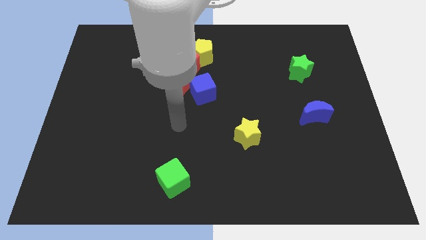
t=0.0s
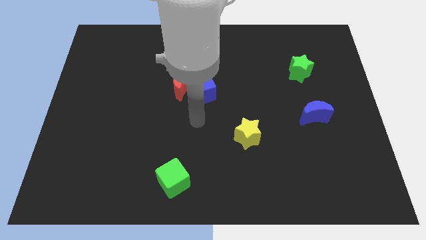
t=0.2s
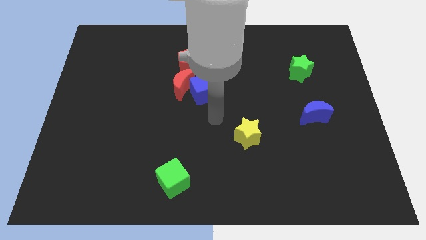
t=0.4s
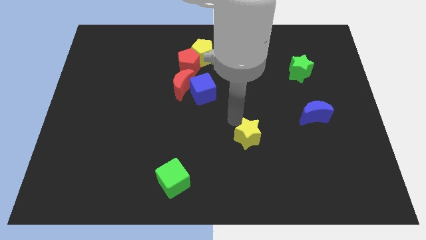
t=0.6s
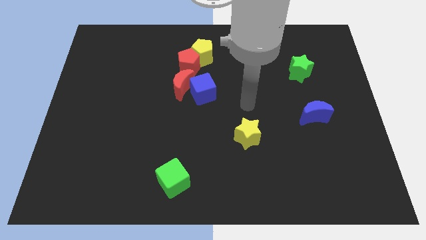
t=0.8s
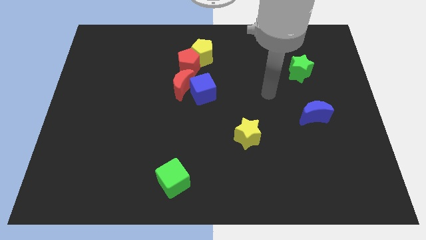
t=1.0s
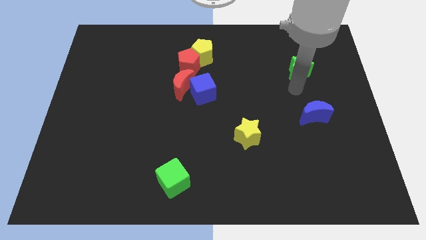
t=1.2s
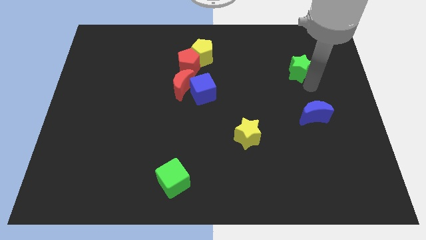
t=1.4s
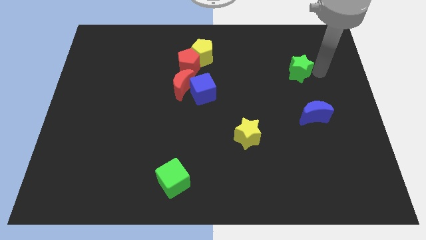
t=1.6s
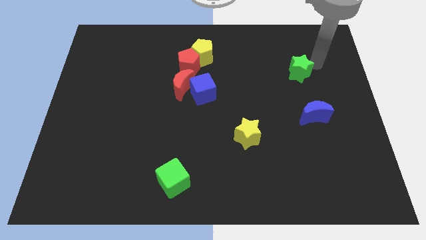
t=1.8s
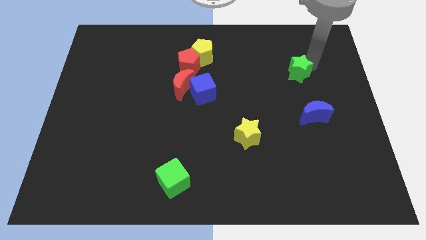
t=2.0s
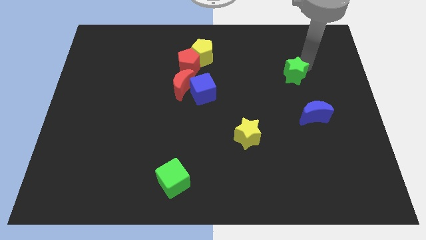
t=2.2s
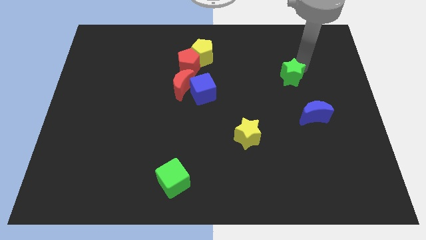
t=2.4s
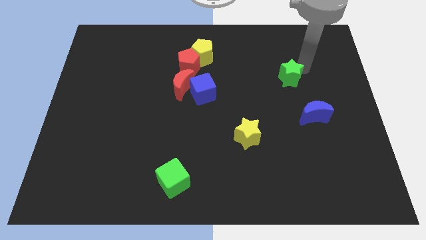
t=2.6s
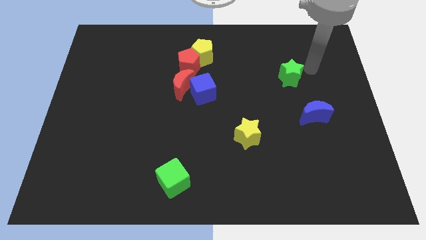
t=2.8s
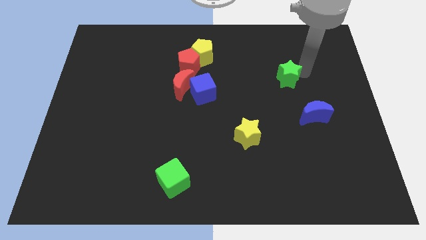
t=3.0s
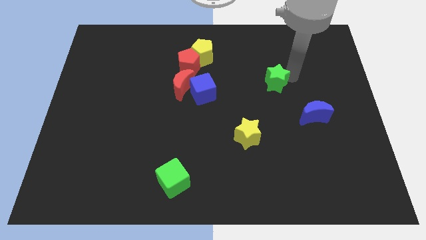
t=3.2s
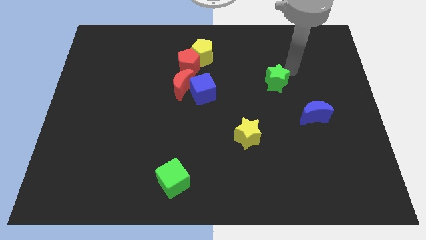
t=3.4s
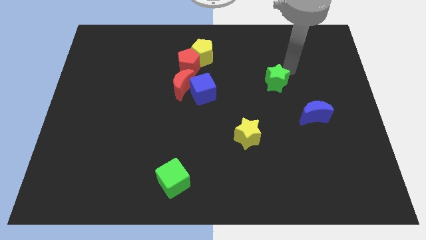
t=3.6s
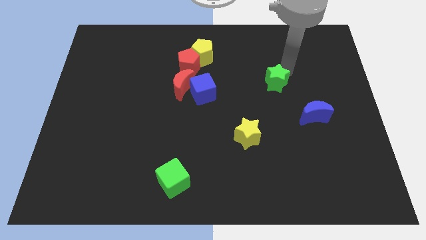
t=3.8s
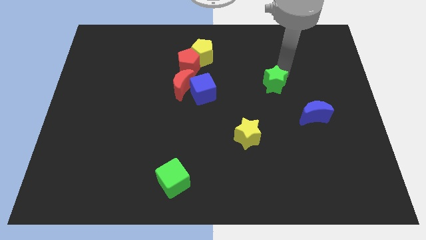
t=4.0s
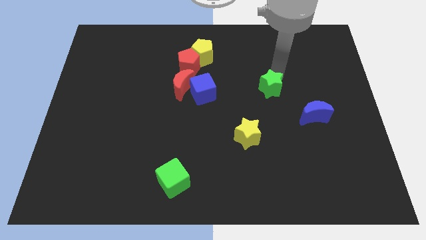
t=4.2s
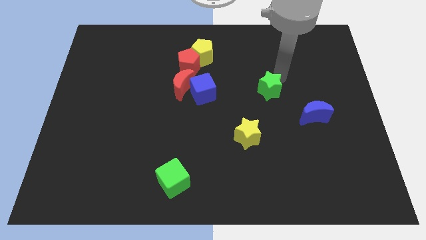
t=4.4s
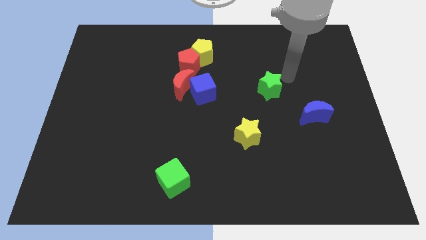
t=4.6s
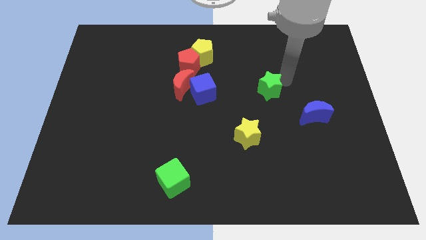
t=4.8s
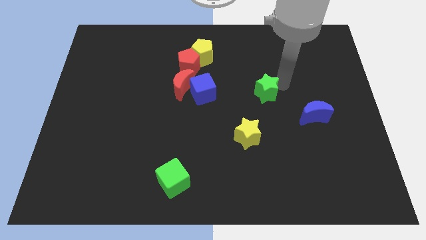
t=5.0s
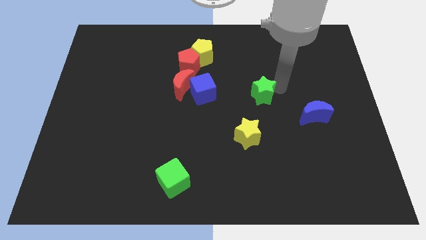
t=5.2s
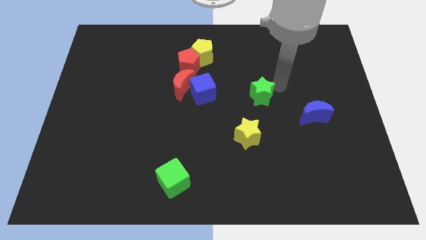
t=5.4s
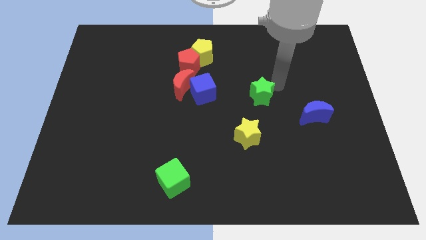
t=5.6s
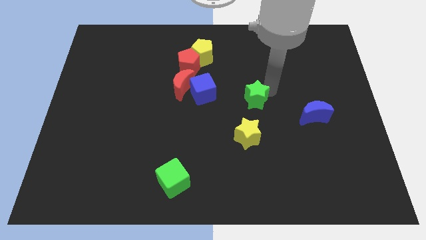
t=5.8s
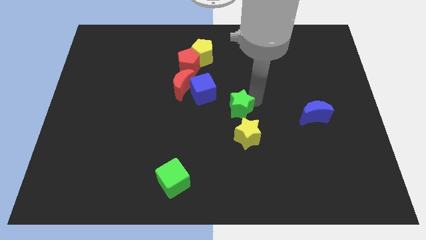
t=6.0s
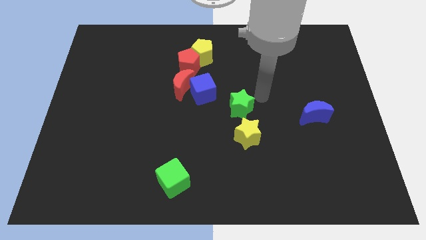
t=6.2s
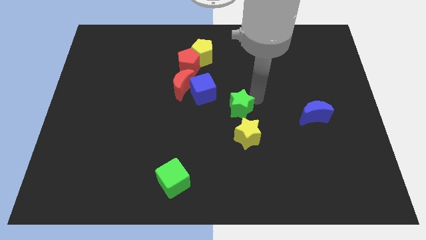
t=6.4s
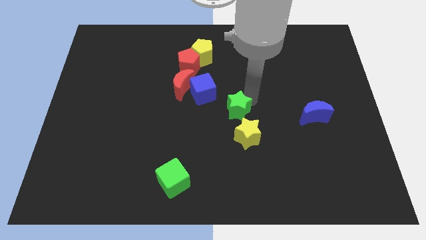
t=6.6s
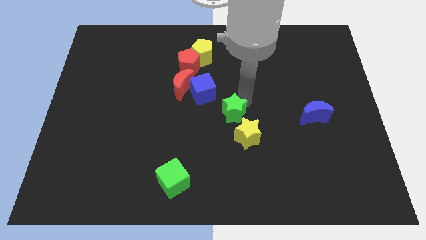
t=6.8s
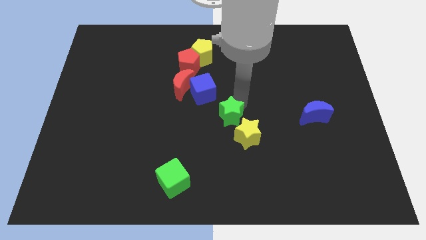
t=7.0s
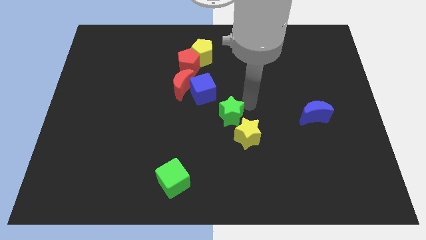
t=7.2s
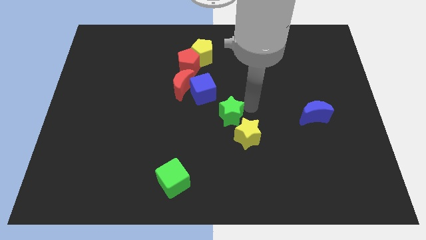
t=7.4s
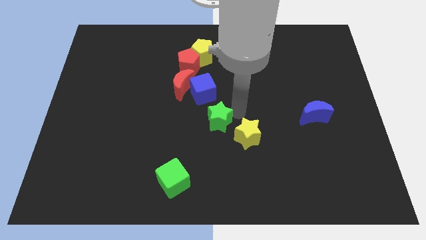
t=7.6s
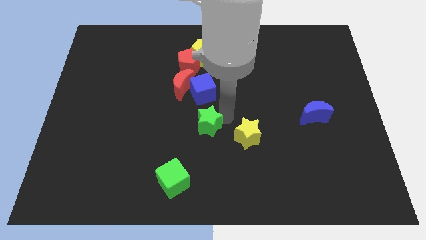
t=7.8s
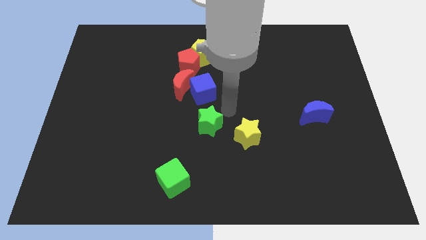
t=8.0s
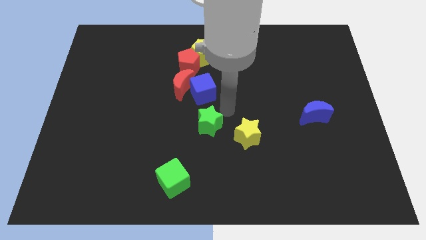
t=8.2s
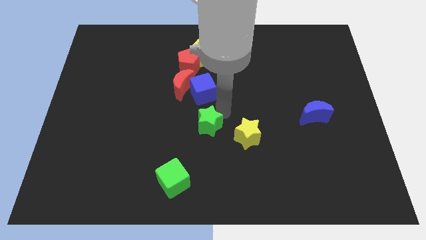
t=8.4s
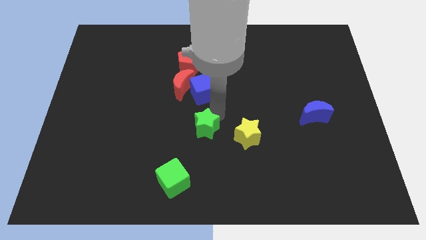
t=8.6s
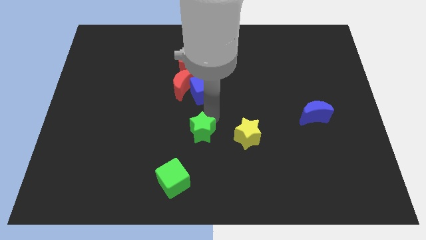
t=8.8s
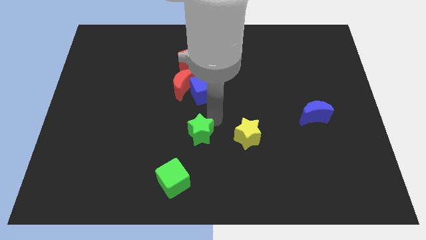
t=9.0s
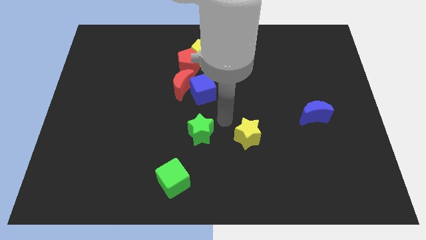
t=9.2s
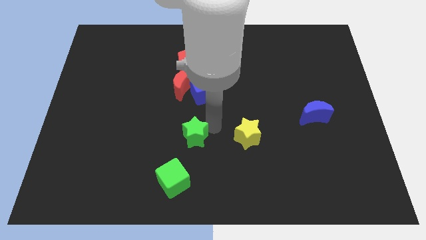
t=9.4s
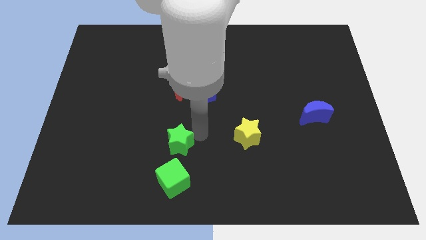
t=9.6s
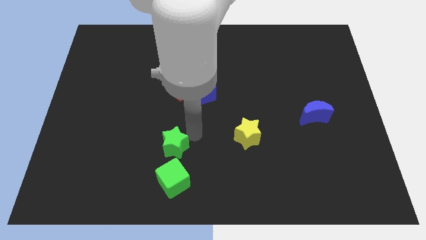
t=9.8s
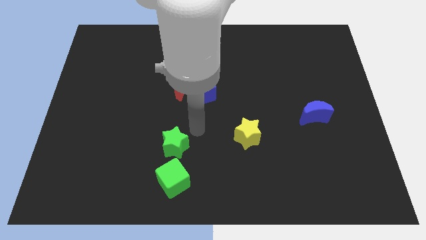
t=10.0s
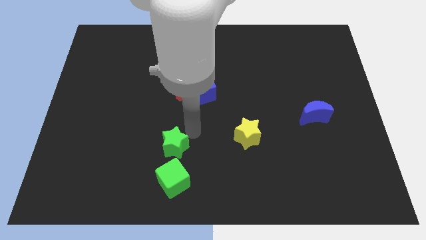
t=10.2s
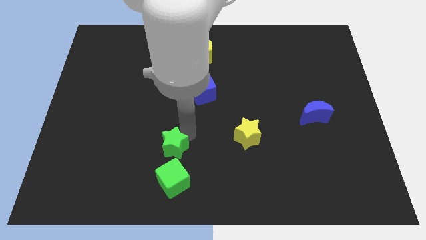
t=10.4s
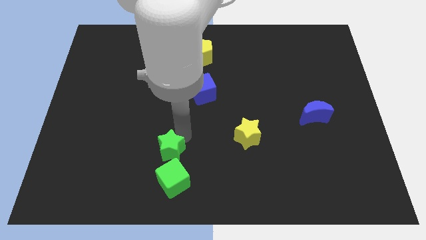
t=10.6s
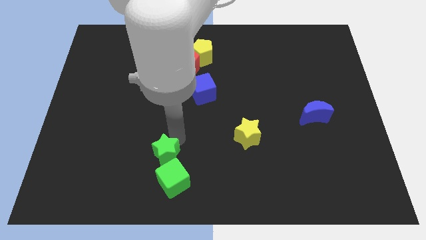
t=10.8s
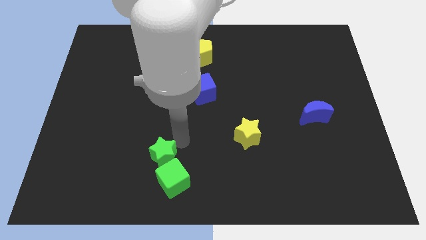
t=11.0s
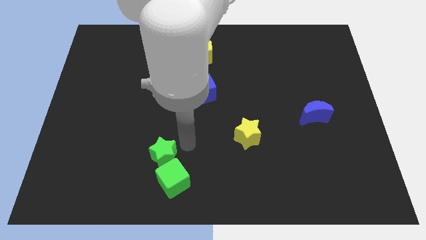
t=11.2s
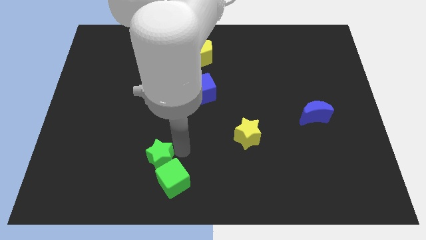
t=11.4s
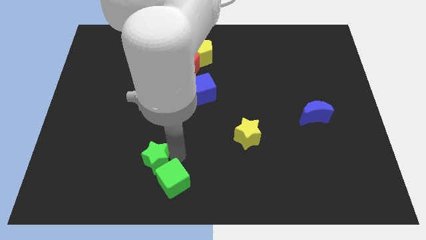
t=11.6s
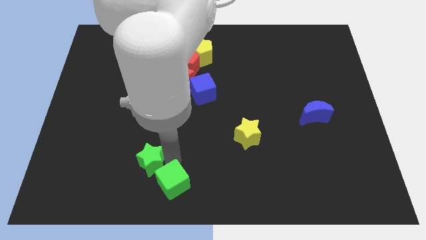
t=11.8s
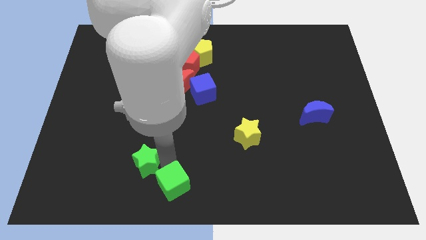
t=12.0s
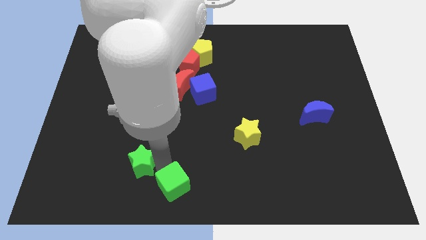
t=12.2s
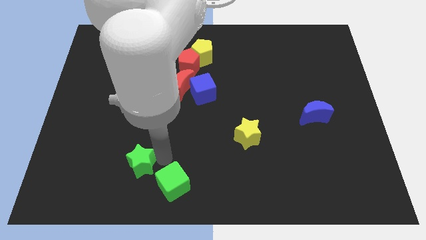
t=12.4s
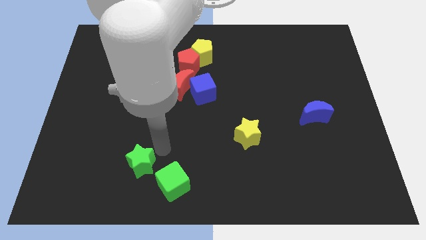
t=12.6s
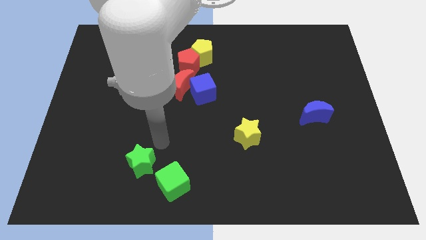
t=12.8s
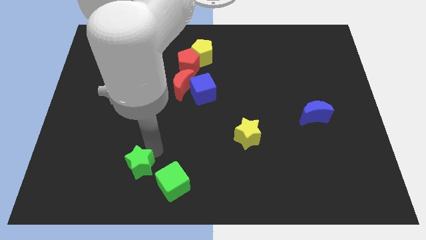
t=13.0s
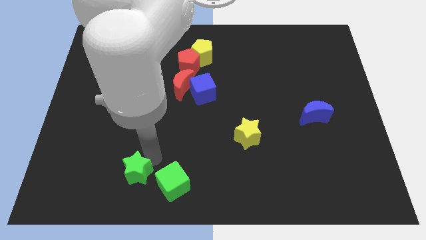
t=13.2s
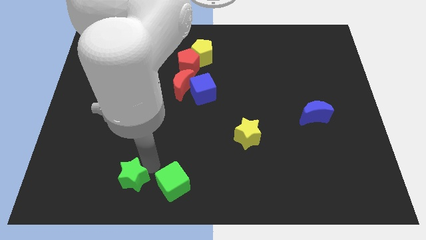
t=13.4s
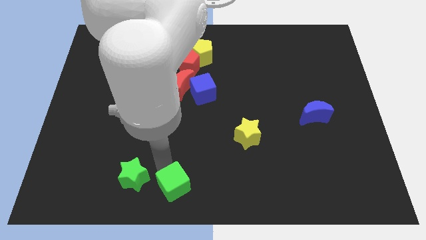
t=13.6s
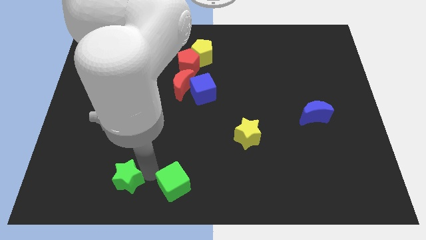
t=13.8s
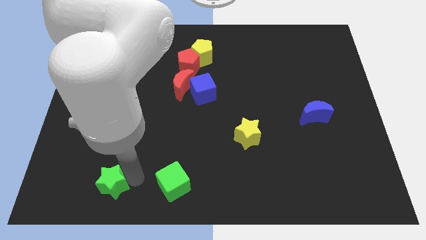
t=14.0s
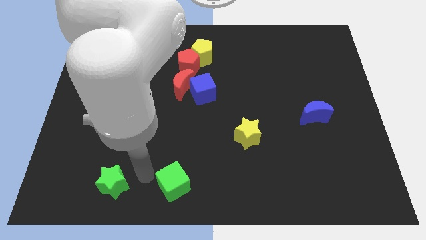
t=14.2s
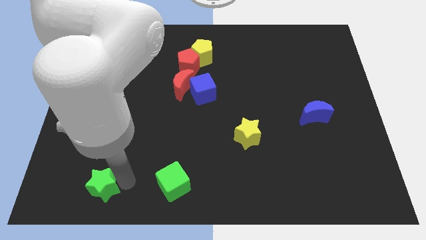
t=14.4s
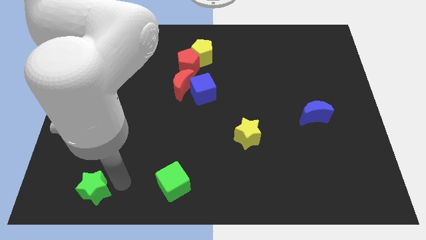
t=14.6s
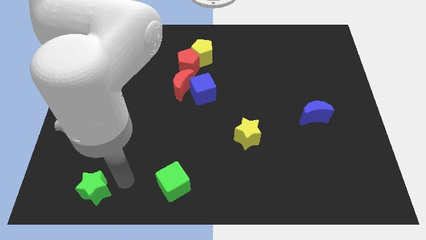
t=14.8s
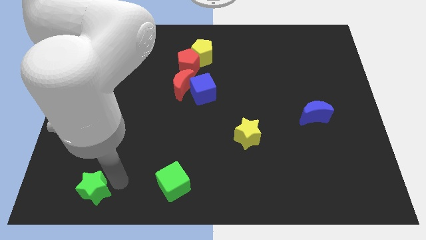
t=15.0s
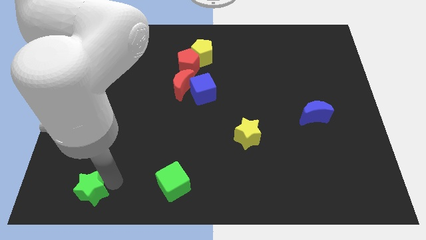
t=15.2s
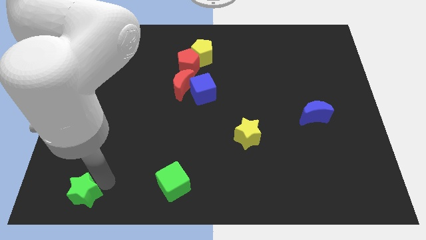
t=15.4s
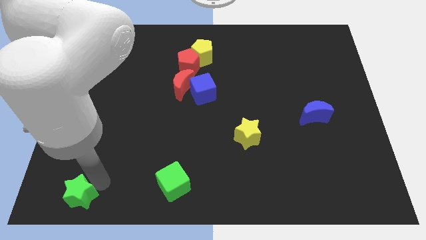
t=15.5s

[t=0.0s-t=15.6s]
push the green star to the bottom left of the board
